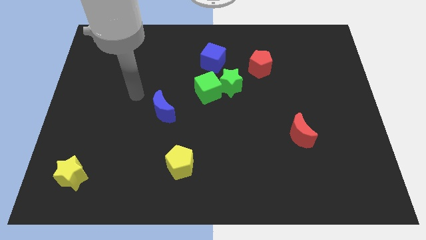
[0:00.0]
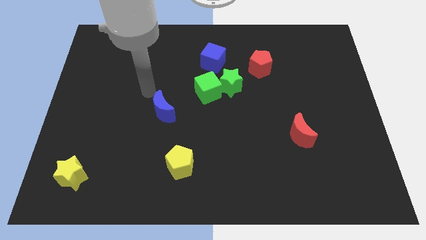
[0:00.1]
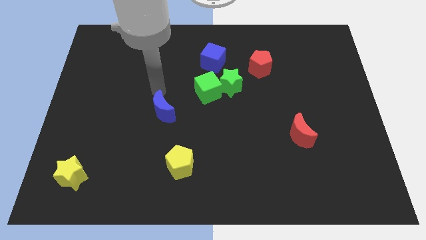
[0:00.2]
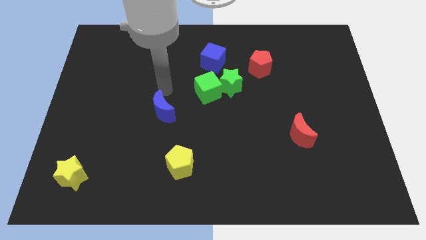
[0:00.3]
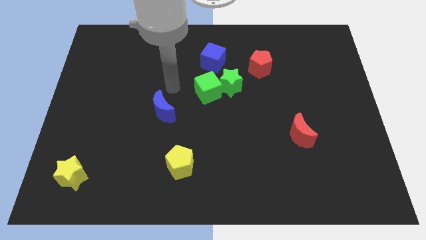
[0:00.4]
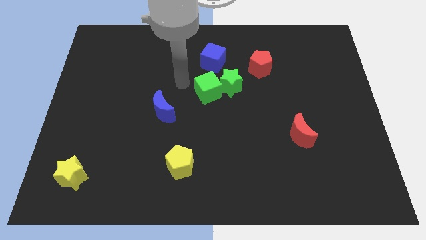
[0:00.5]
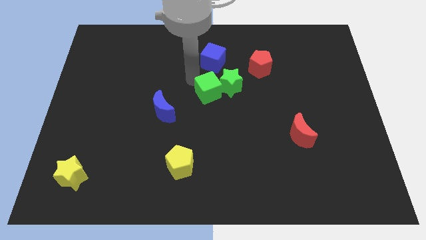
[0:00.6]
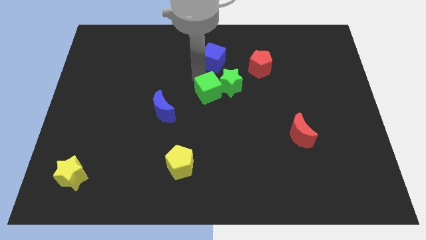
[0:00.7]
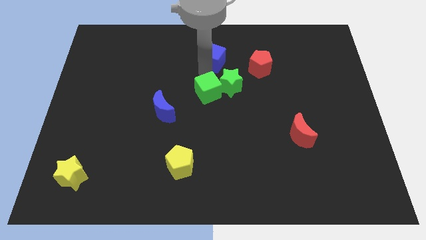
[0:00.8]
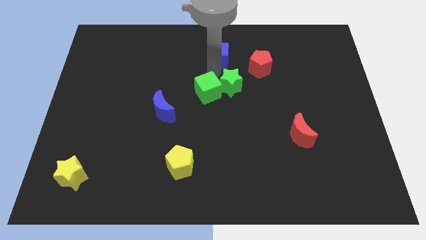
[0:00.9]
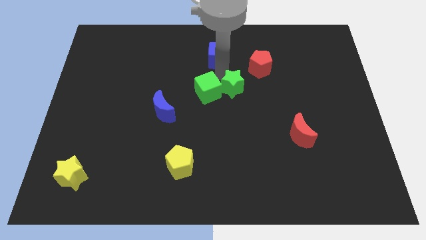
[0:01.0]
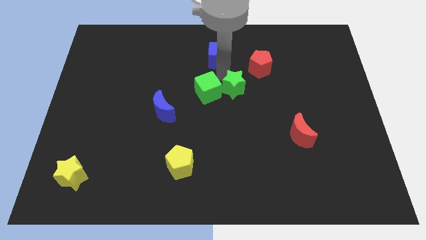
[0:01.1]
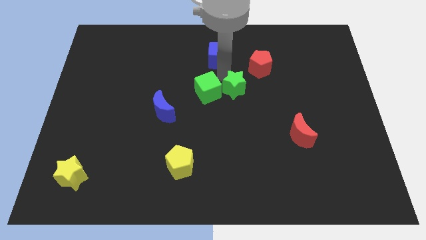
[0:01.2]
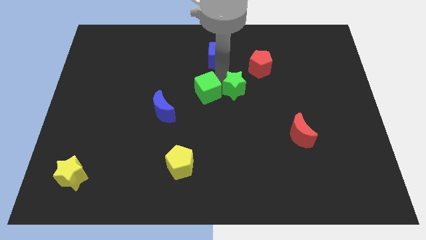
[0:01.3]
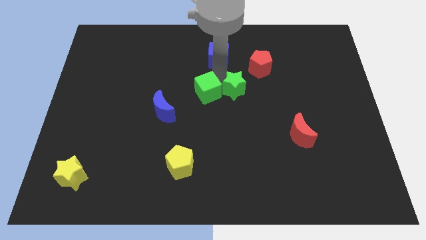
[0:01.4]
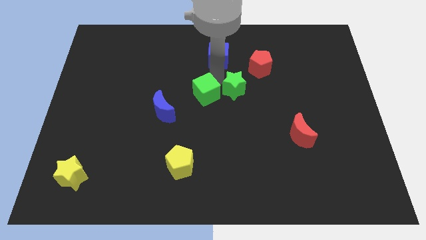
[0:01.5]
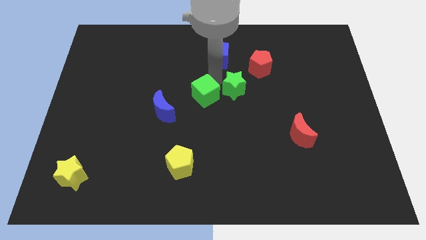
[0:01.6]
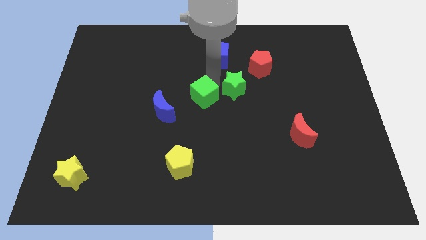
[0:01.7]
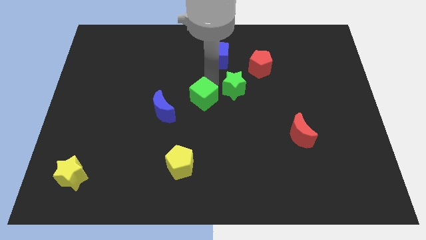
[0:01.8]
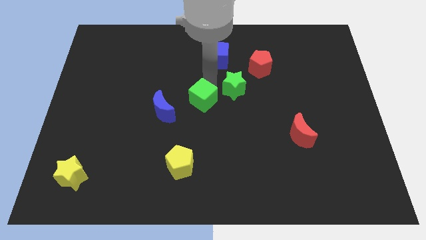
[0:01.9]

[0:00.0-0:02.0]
pull the green cube apart from the green star and blue cube

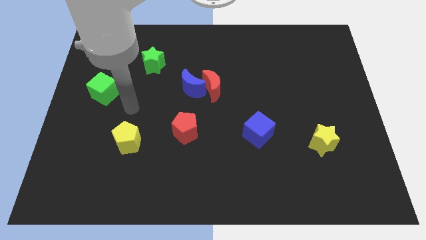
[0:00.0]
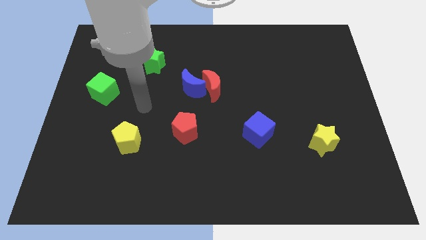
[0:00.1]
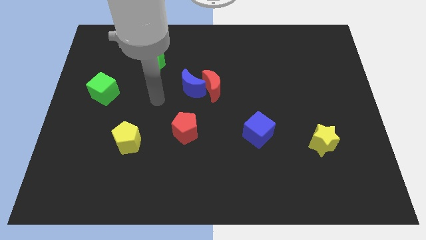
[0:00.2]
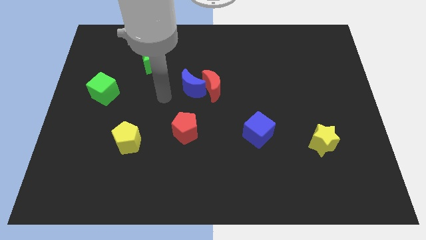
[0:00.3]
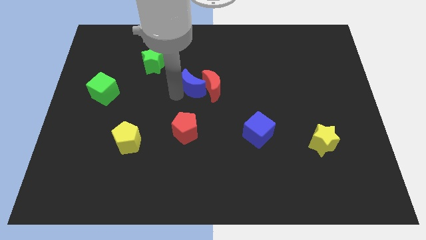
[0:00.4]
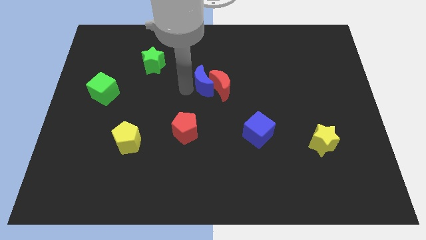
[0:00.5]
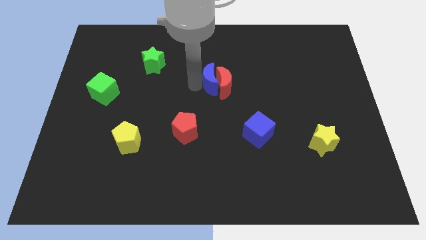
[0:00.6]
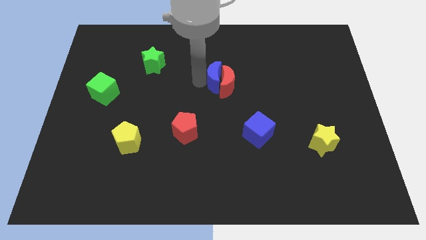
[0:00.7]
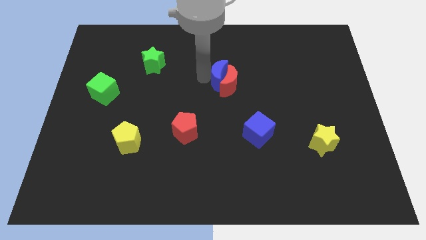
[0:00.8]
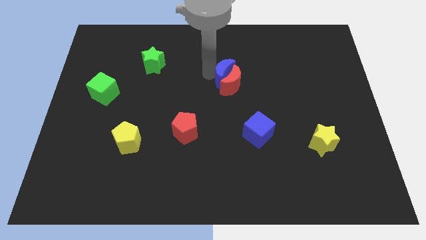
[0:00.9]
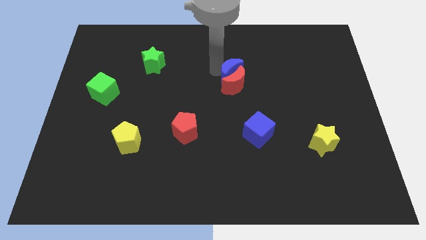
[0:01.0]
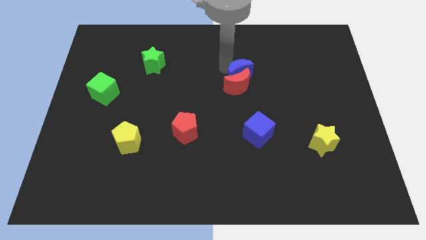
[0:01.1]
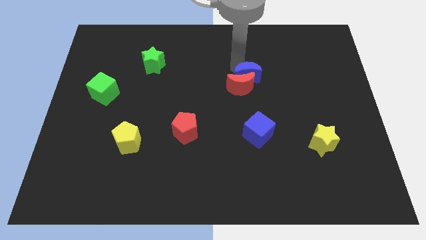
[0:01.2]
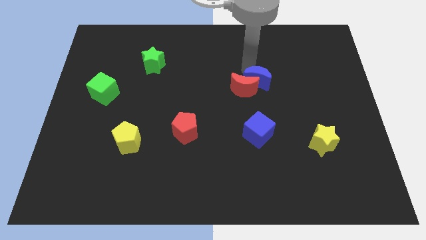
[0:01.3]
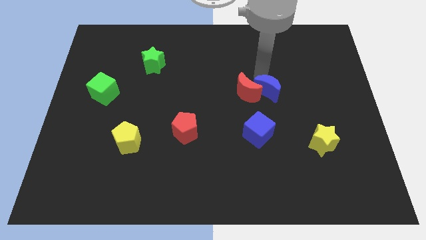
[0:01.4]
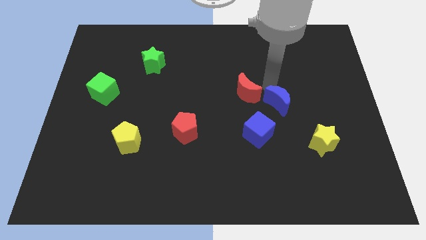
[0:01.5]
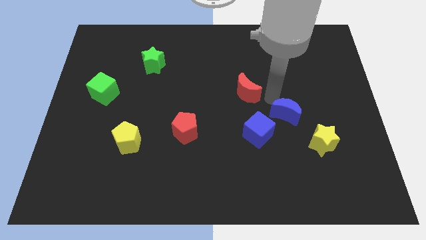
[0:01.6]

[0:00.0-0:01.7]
pull the red moon apart from the blue moon

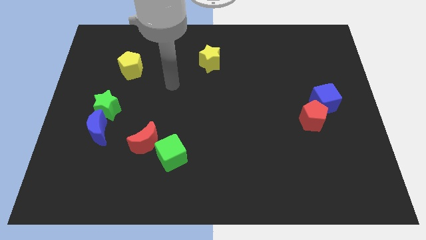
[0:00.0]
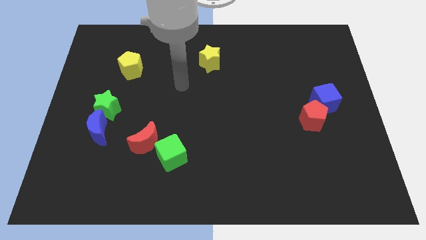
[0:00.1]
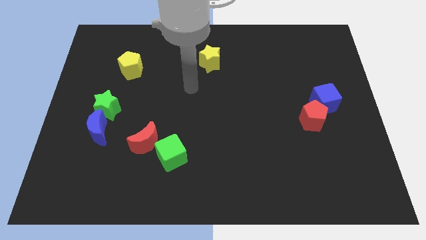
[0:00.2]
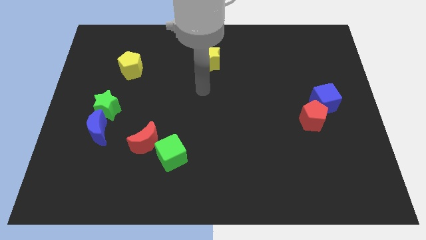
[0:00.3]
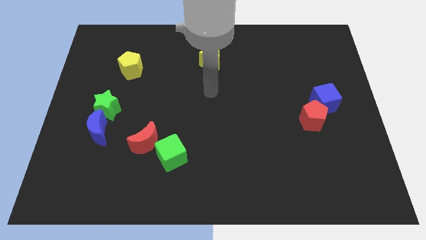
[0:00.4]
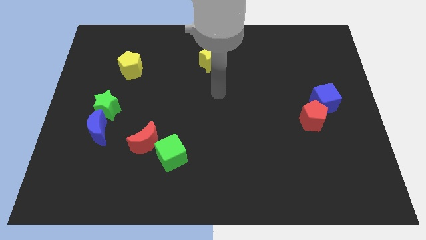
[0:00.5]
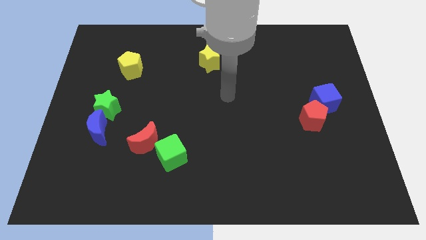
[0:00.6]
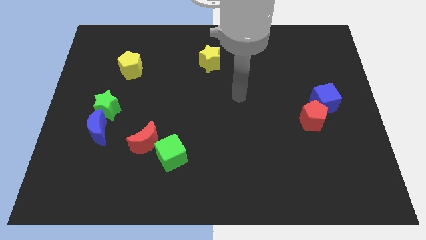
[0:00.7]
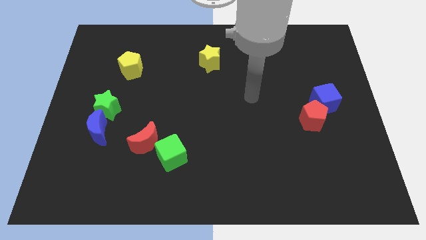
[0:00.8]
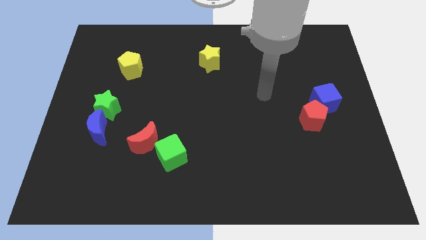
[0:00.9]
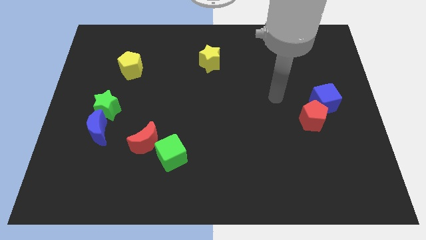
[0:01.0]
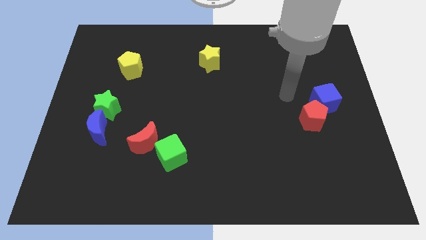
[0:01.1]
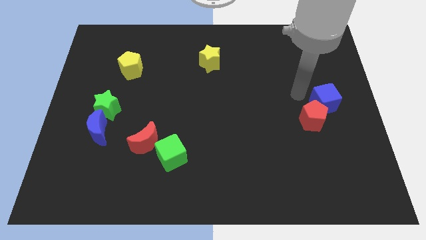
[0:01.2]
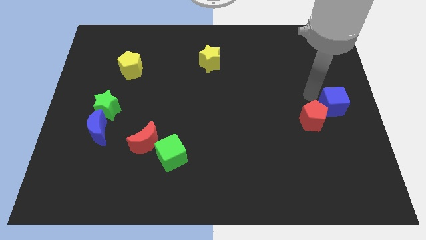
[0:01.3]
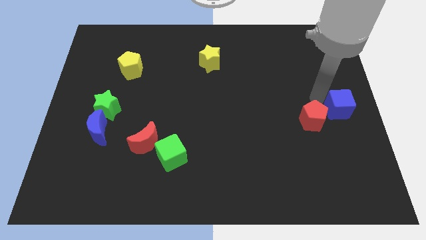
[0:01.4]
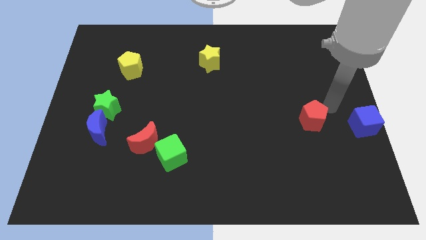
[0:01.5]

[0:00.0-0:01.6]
separate the red pentagon from the blue cube

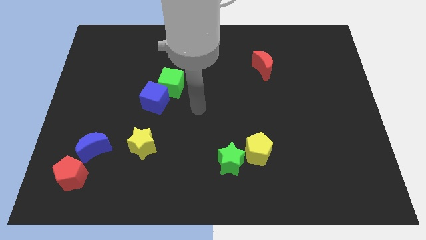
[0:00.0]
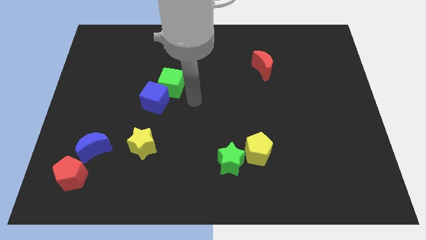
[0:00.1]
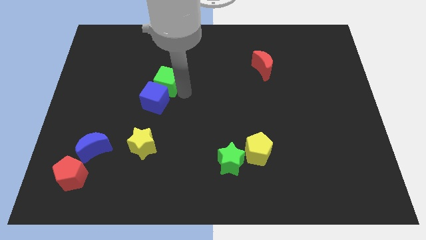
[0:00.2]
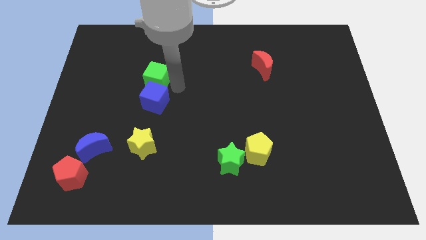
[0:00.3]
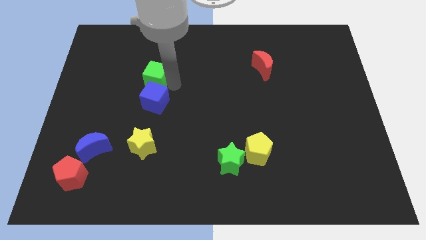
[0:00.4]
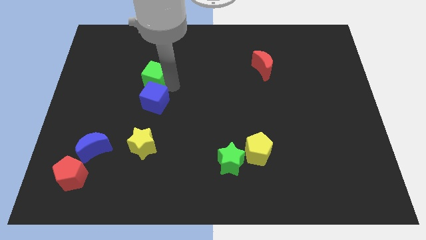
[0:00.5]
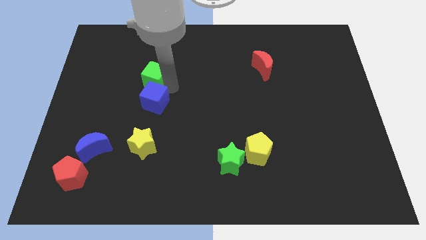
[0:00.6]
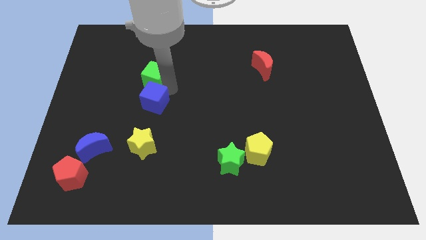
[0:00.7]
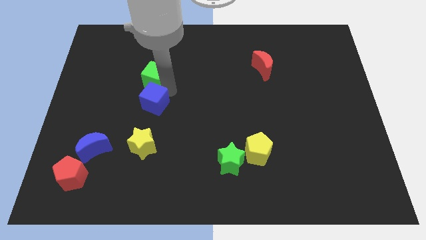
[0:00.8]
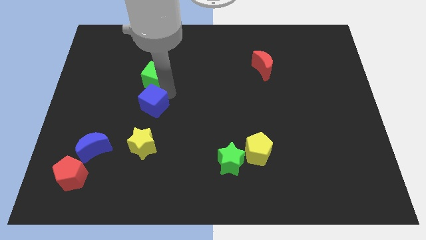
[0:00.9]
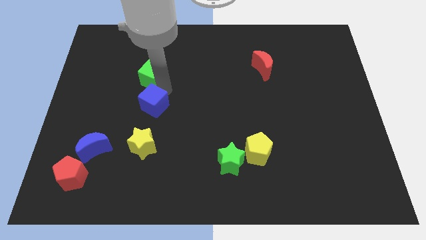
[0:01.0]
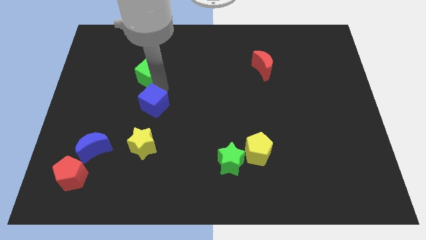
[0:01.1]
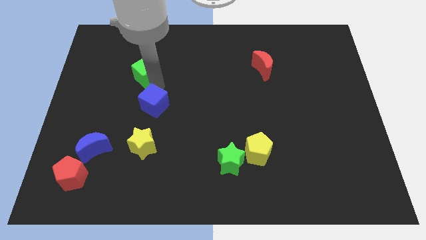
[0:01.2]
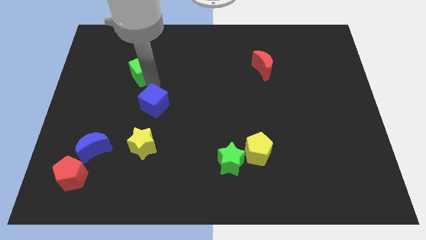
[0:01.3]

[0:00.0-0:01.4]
move the blue cube away from the green cube

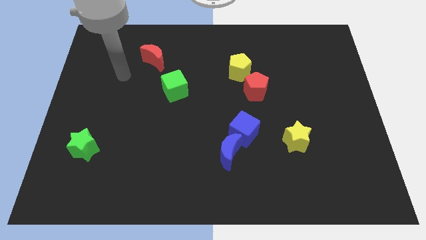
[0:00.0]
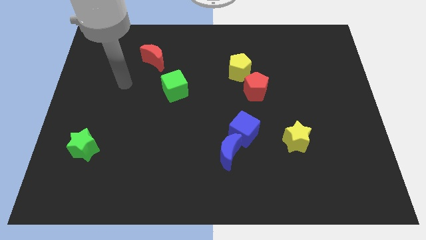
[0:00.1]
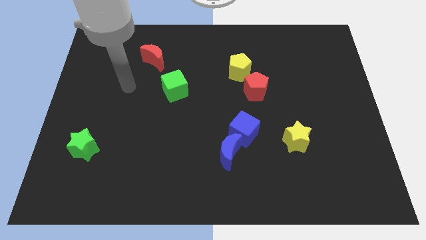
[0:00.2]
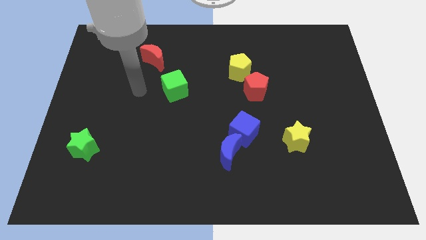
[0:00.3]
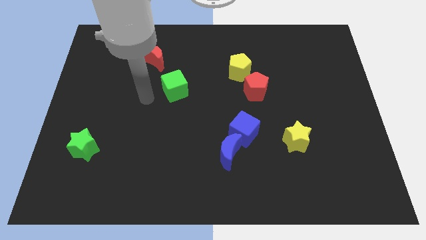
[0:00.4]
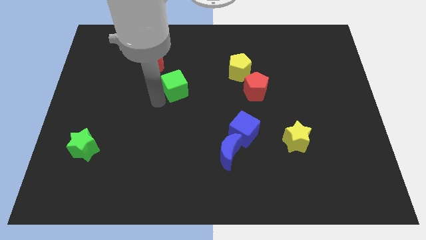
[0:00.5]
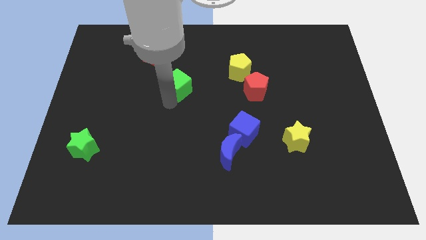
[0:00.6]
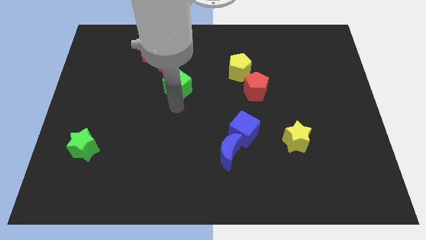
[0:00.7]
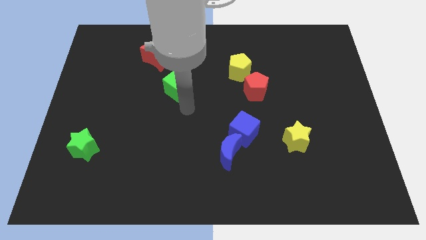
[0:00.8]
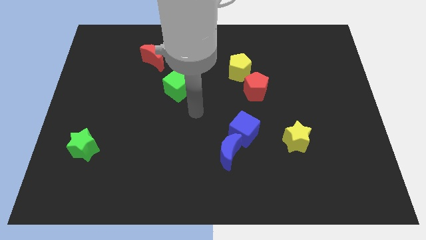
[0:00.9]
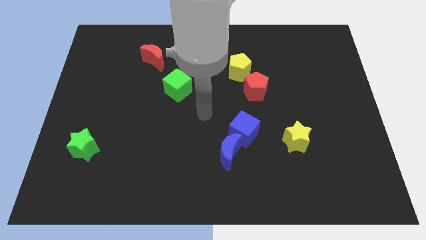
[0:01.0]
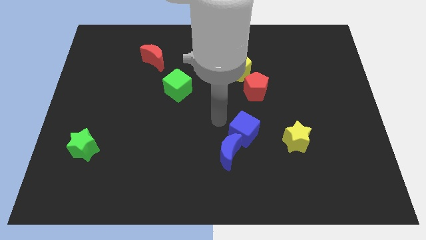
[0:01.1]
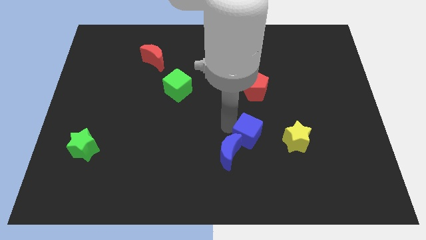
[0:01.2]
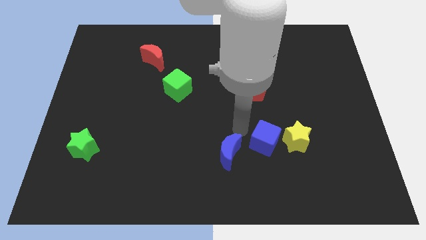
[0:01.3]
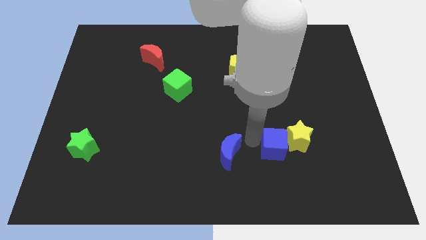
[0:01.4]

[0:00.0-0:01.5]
separate the blue moon from the blue cube

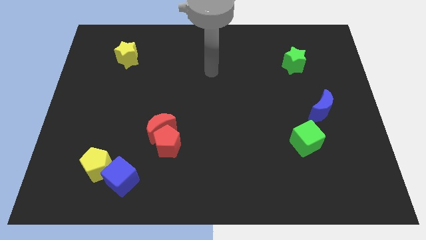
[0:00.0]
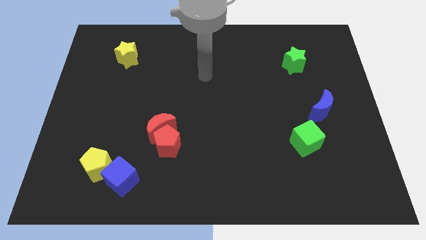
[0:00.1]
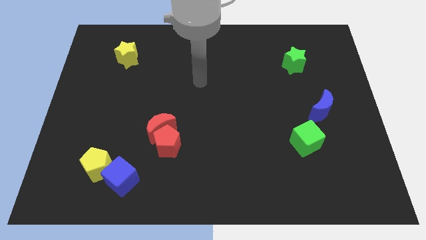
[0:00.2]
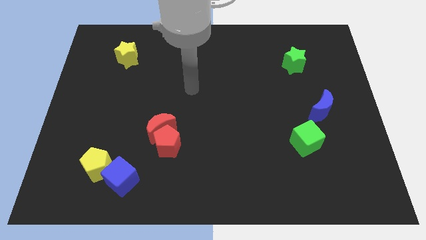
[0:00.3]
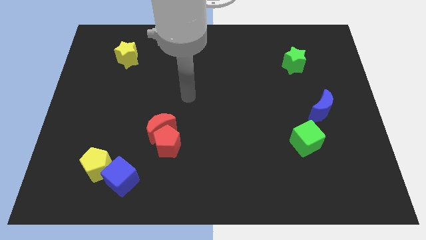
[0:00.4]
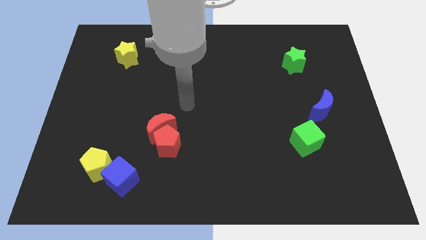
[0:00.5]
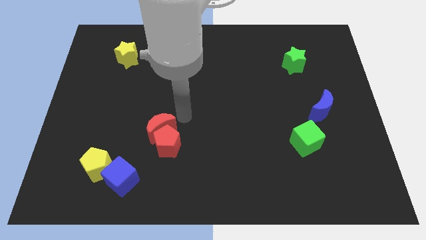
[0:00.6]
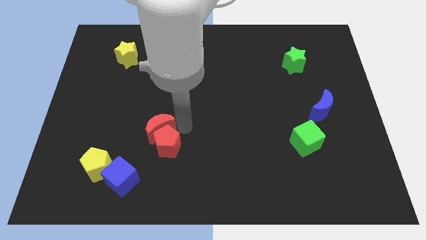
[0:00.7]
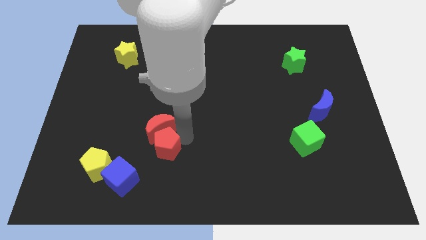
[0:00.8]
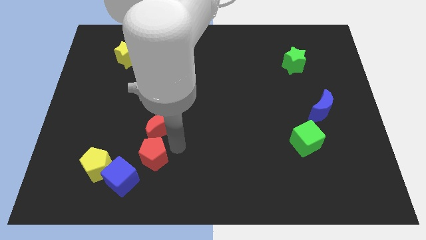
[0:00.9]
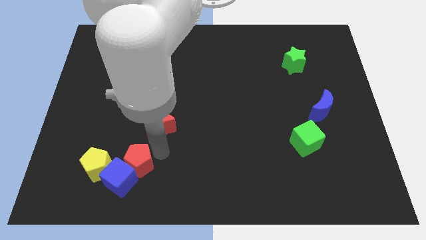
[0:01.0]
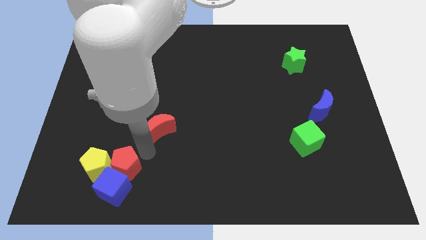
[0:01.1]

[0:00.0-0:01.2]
pull the red moon apart from the red pentagon
